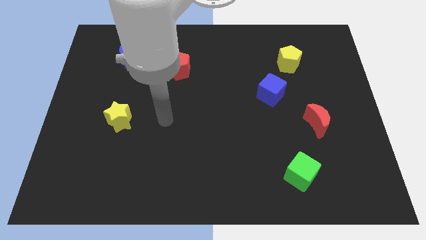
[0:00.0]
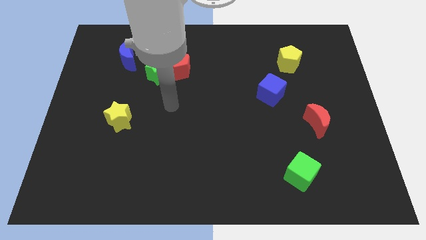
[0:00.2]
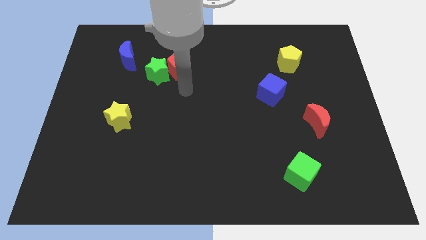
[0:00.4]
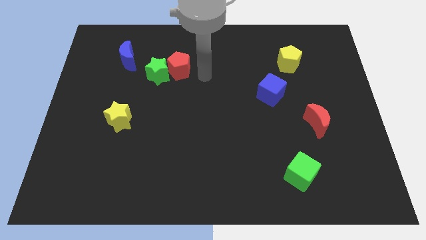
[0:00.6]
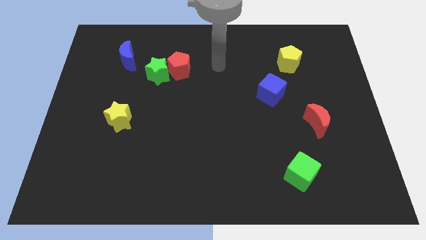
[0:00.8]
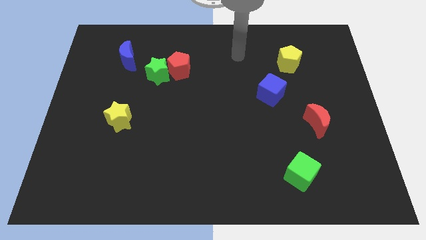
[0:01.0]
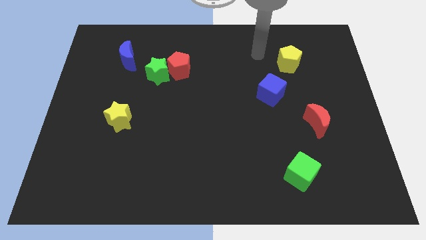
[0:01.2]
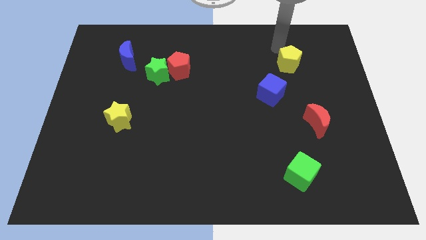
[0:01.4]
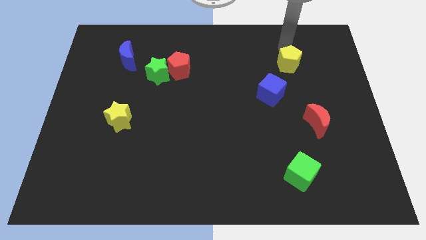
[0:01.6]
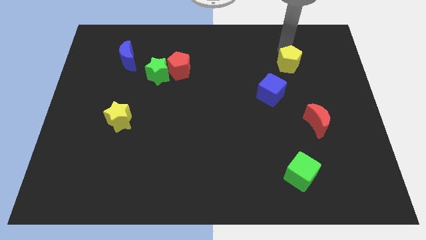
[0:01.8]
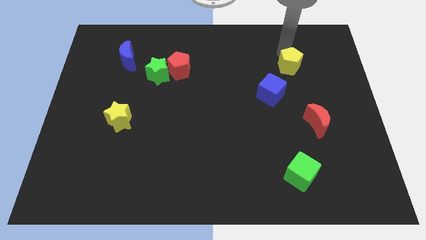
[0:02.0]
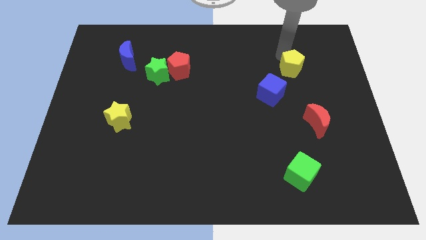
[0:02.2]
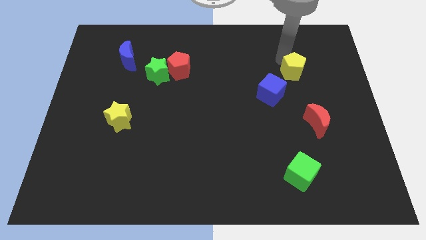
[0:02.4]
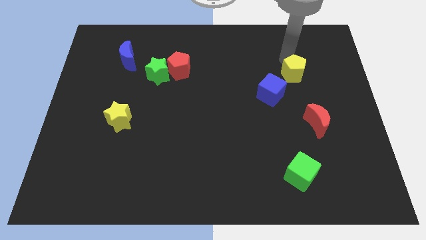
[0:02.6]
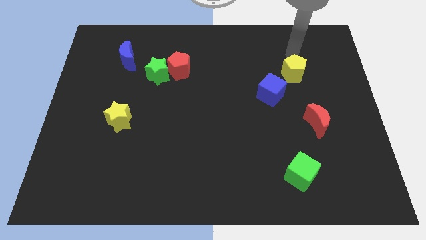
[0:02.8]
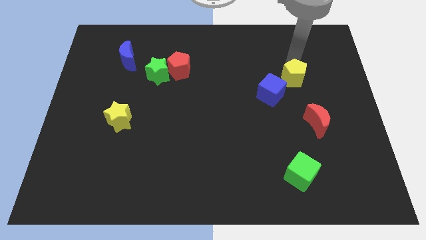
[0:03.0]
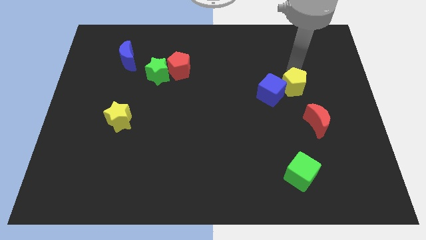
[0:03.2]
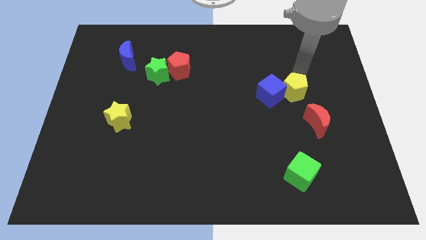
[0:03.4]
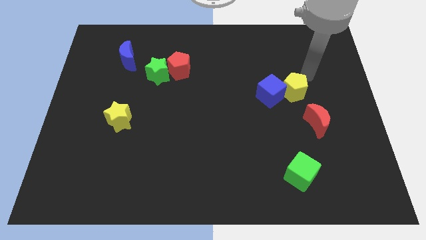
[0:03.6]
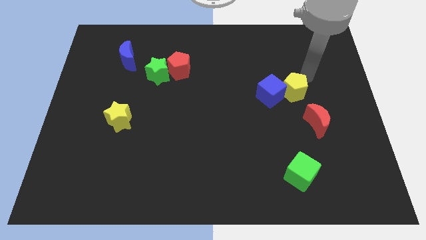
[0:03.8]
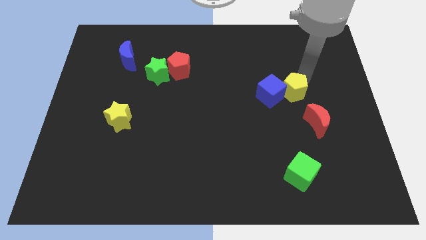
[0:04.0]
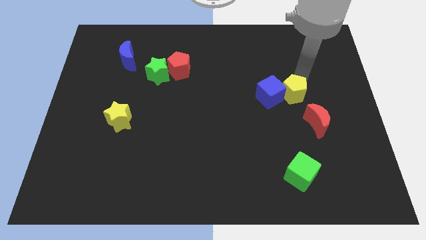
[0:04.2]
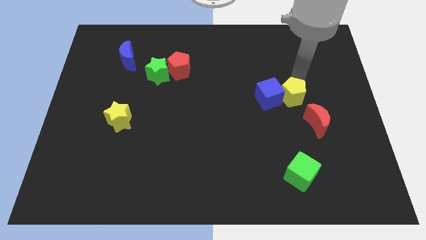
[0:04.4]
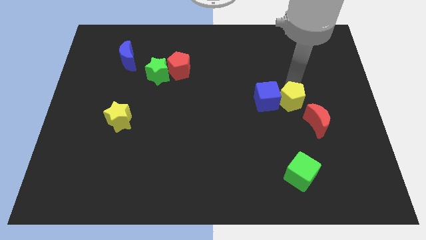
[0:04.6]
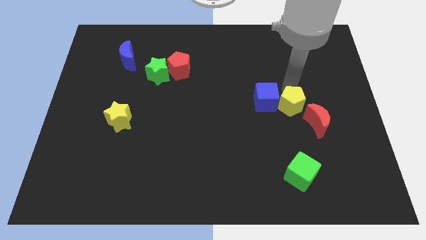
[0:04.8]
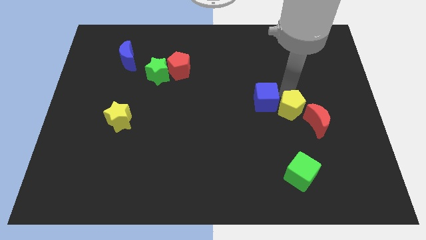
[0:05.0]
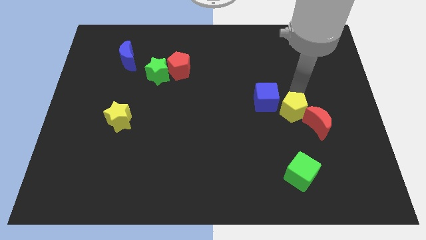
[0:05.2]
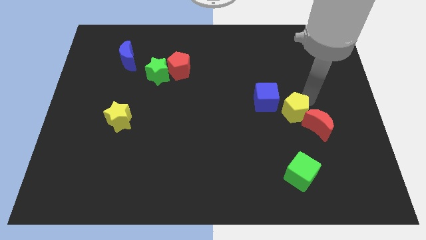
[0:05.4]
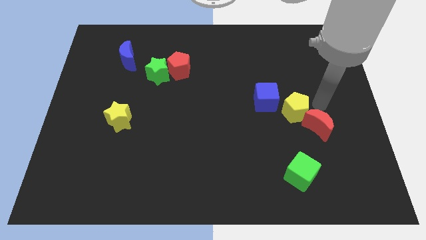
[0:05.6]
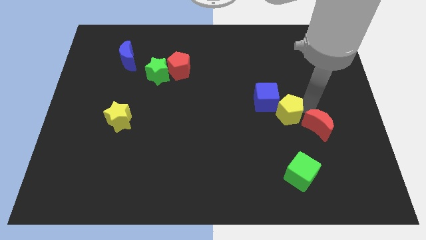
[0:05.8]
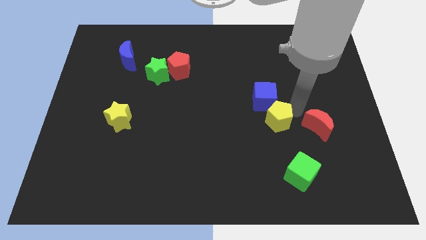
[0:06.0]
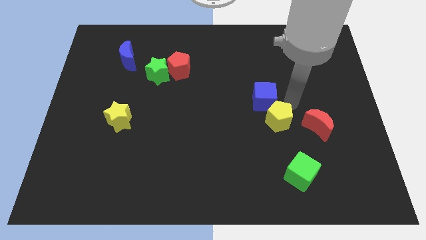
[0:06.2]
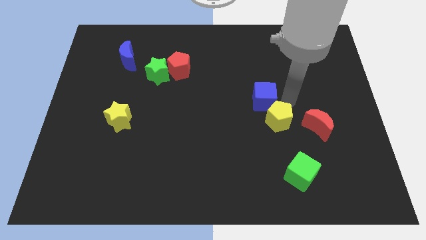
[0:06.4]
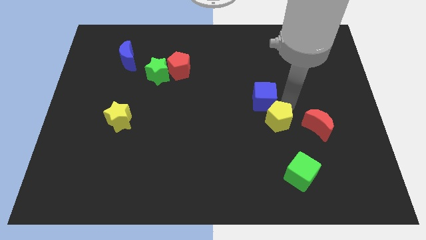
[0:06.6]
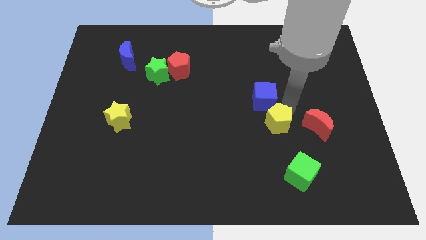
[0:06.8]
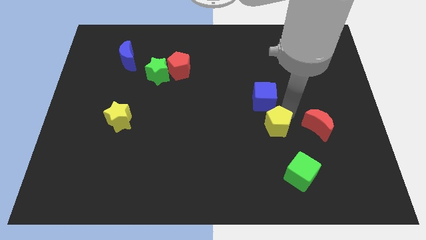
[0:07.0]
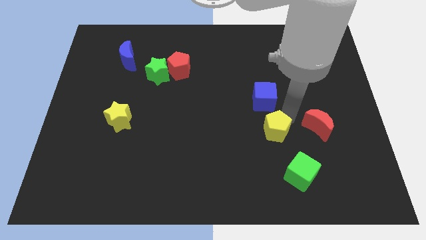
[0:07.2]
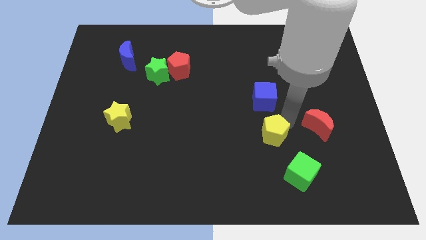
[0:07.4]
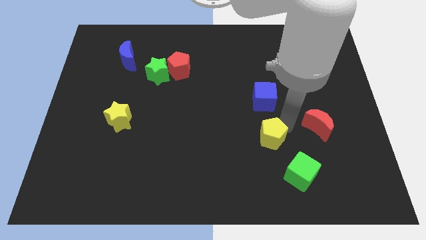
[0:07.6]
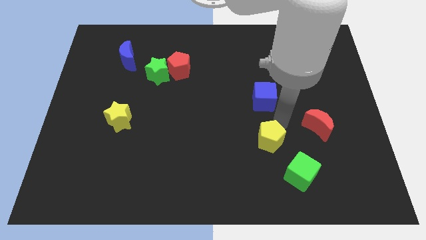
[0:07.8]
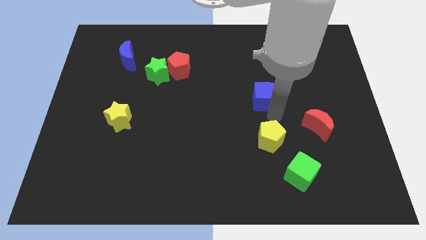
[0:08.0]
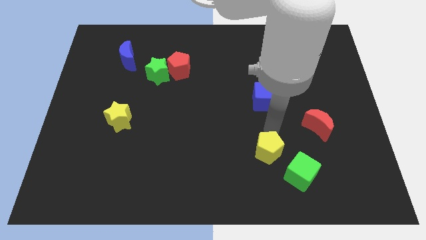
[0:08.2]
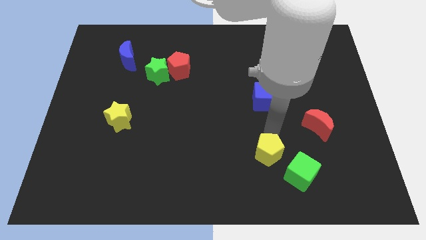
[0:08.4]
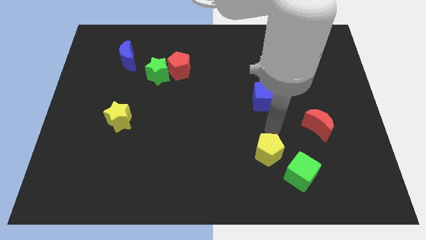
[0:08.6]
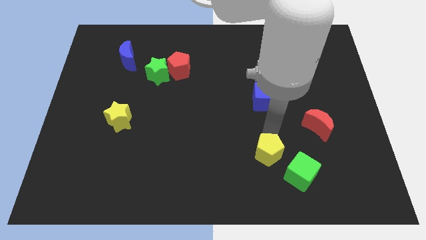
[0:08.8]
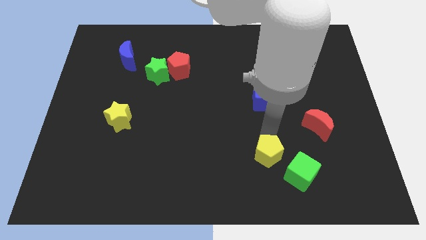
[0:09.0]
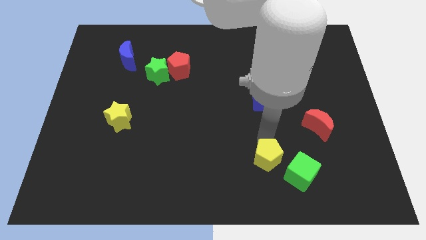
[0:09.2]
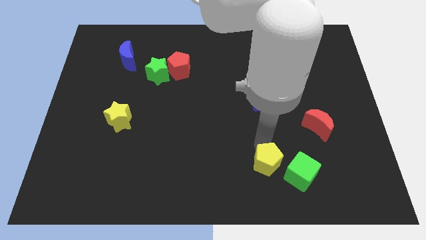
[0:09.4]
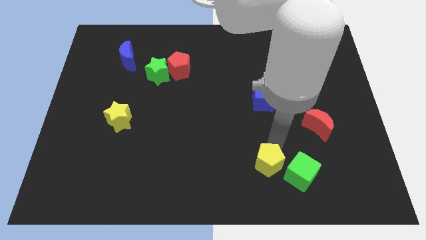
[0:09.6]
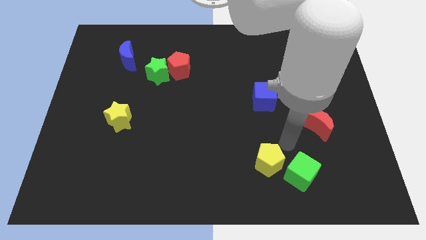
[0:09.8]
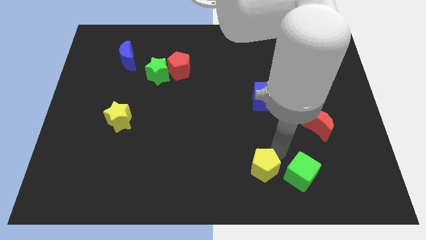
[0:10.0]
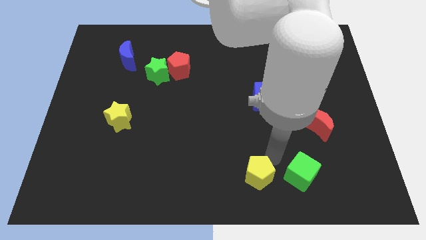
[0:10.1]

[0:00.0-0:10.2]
slide the yellow pentagon to the bottom
